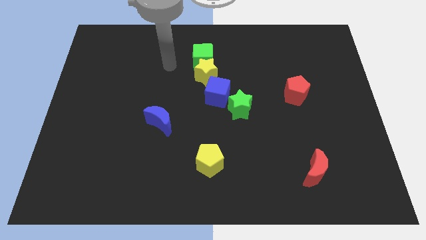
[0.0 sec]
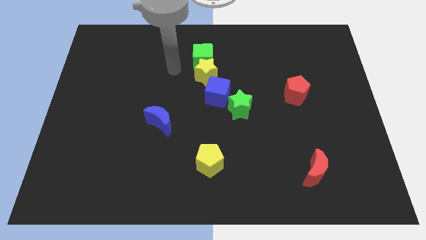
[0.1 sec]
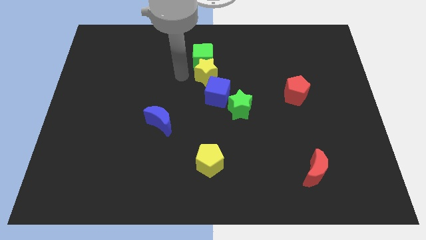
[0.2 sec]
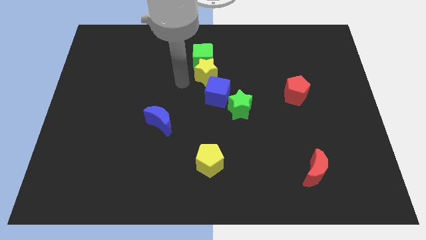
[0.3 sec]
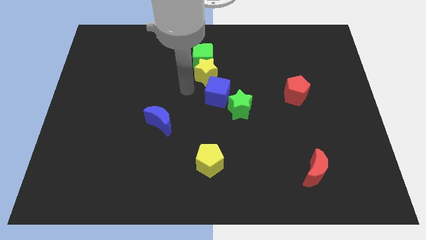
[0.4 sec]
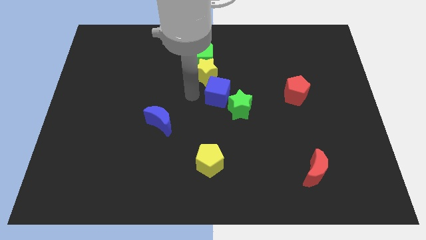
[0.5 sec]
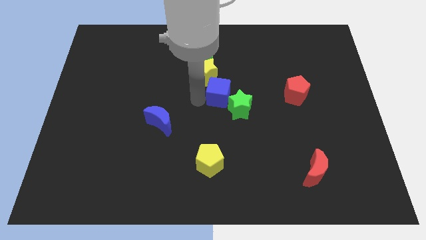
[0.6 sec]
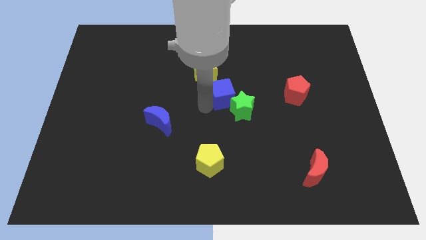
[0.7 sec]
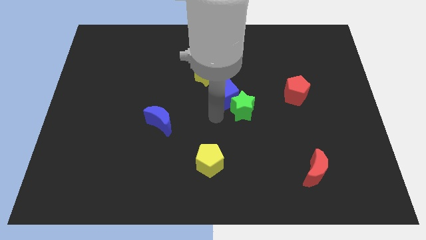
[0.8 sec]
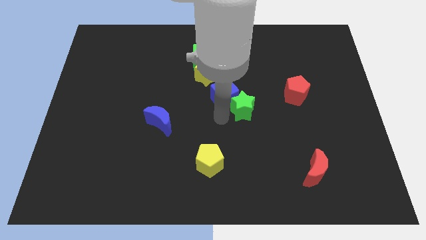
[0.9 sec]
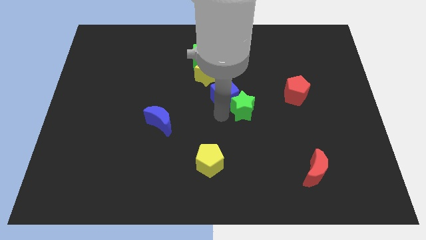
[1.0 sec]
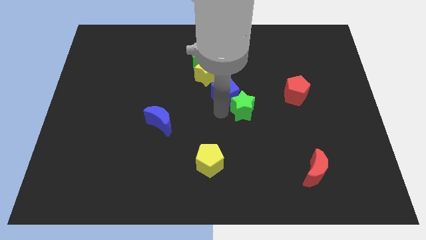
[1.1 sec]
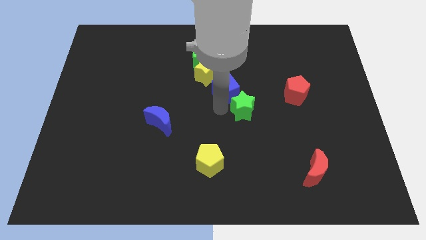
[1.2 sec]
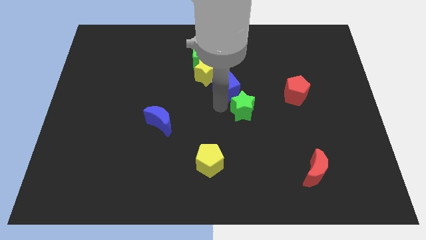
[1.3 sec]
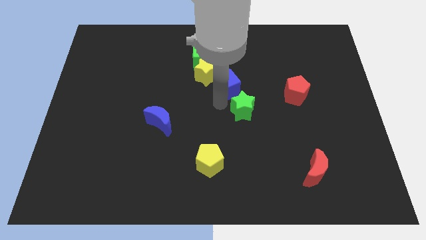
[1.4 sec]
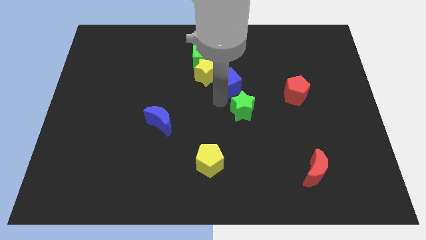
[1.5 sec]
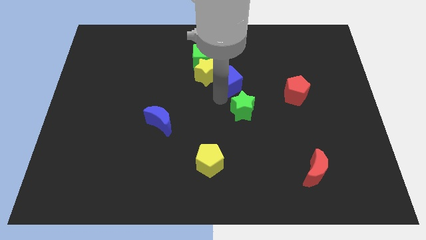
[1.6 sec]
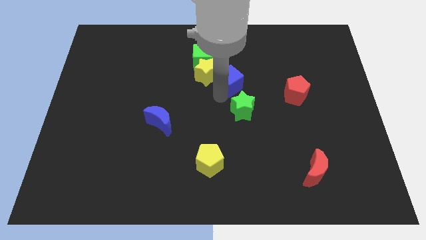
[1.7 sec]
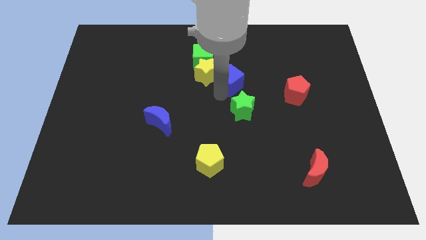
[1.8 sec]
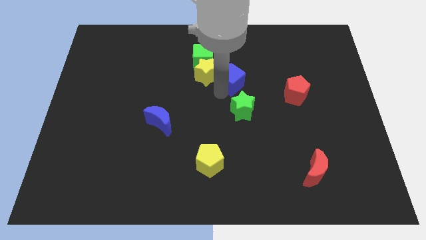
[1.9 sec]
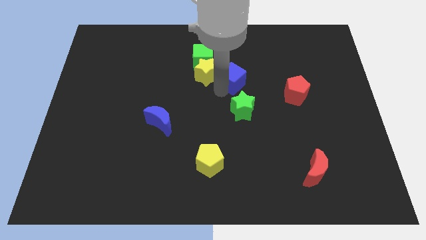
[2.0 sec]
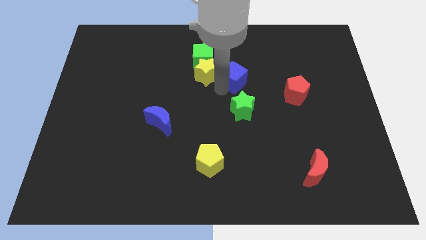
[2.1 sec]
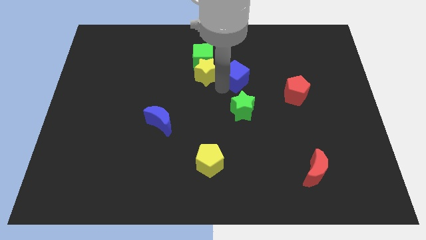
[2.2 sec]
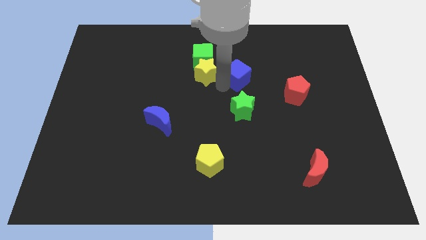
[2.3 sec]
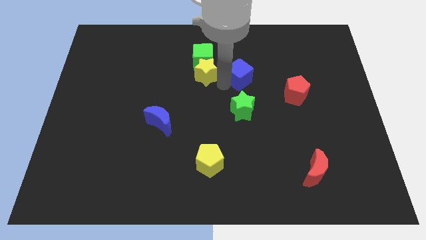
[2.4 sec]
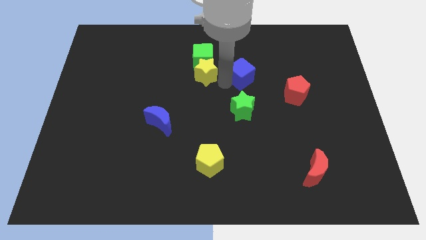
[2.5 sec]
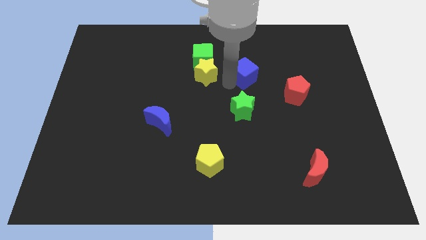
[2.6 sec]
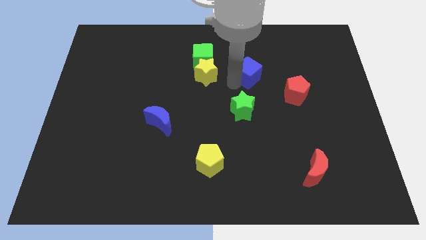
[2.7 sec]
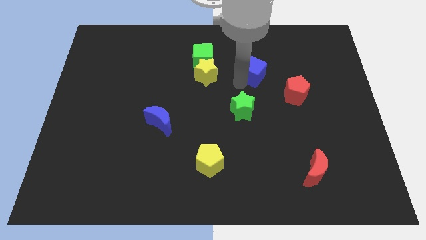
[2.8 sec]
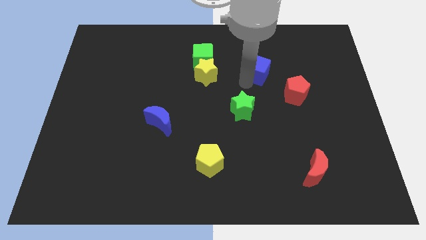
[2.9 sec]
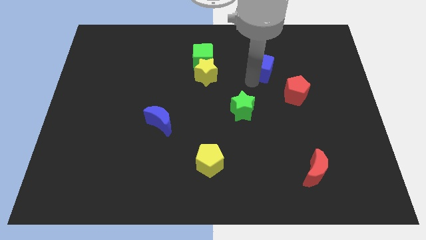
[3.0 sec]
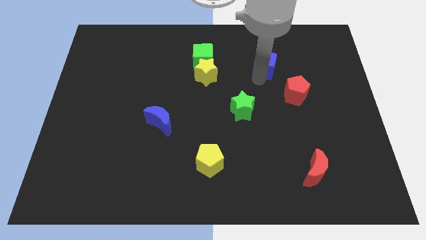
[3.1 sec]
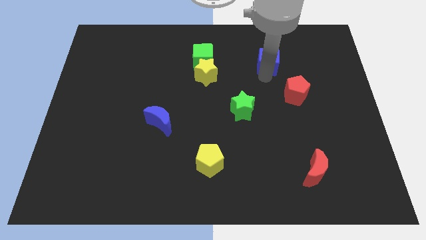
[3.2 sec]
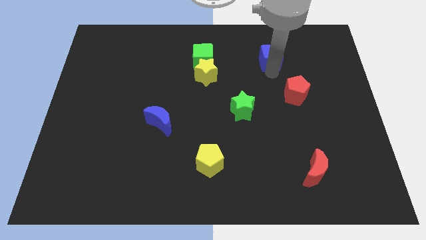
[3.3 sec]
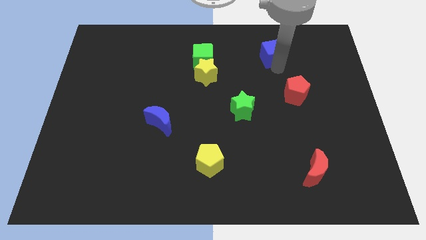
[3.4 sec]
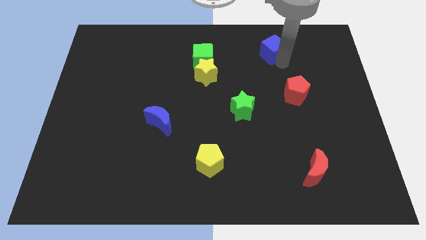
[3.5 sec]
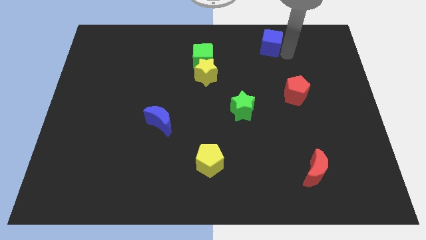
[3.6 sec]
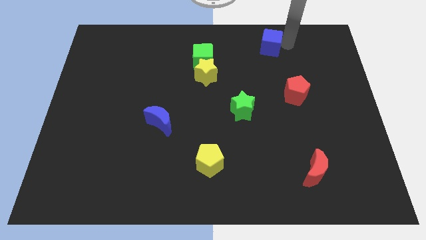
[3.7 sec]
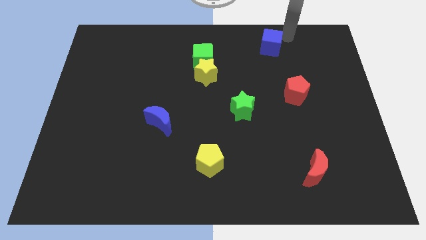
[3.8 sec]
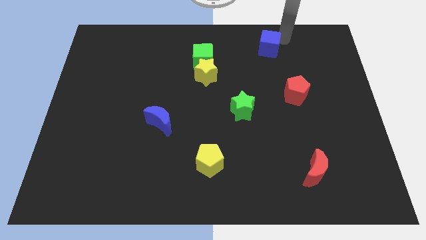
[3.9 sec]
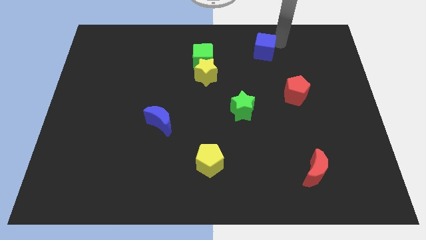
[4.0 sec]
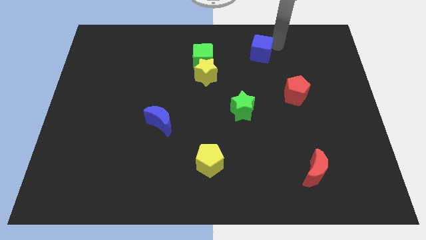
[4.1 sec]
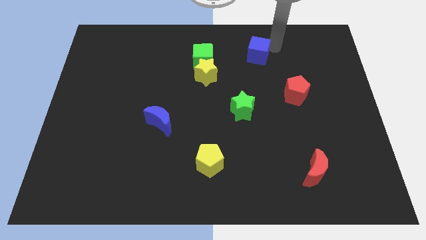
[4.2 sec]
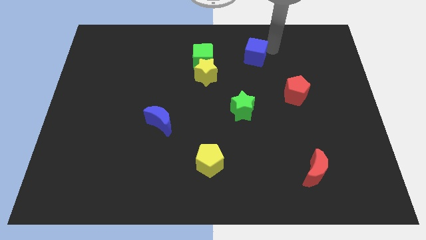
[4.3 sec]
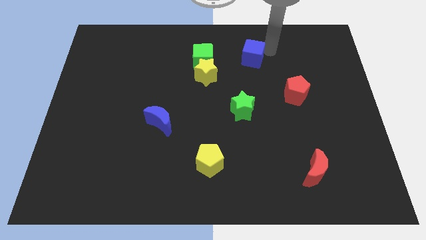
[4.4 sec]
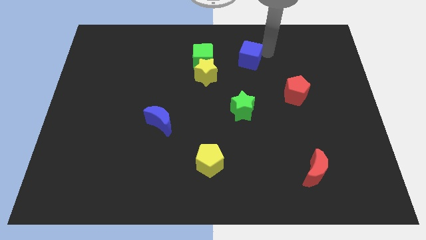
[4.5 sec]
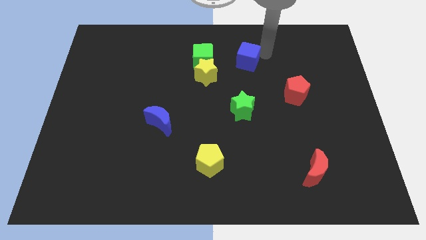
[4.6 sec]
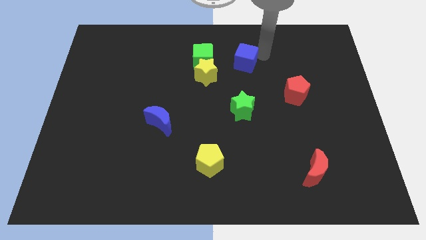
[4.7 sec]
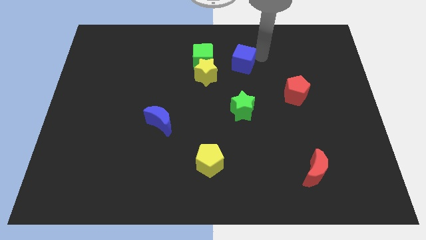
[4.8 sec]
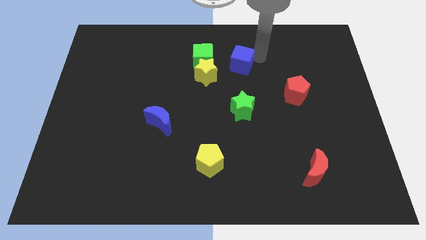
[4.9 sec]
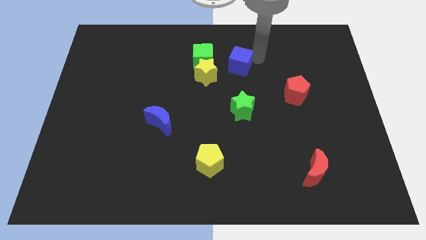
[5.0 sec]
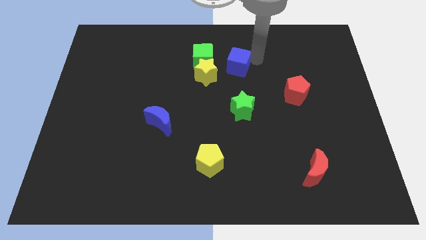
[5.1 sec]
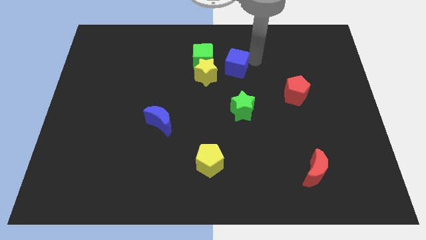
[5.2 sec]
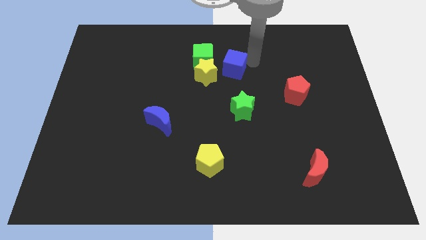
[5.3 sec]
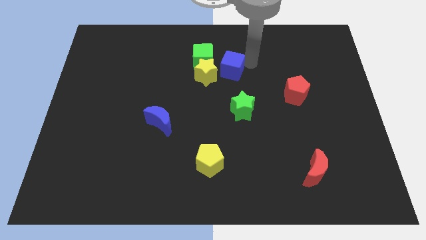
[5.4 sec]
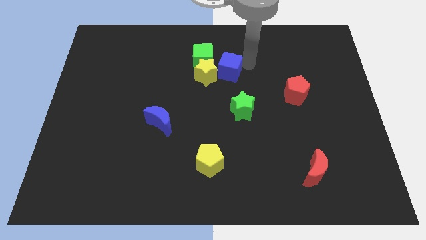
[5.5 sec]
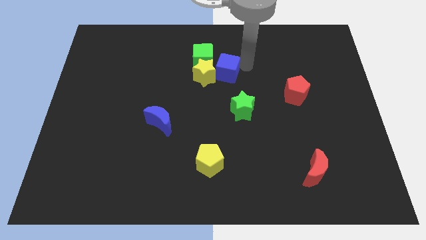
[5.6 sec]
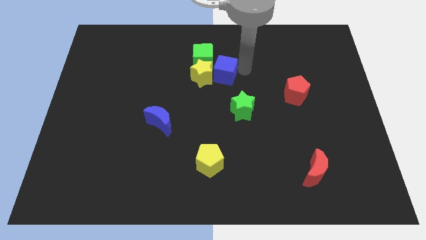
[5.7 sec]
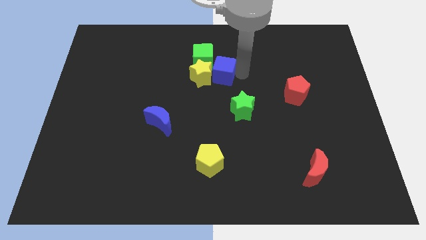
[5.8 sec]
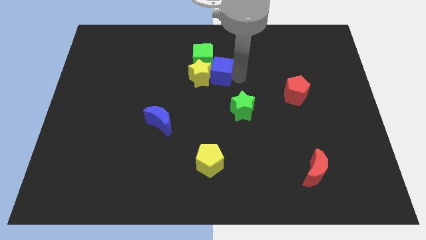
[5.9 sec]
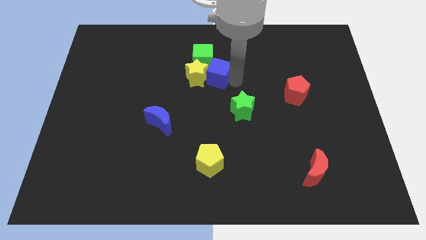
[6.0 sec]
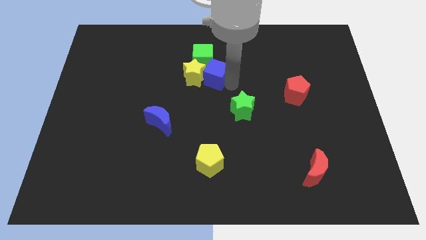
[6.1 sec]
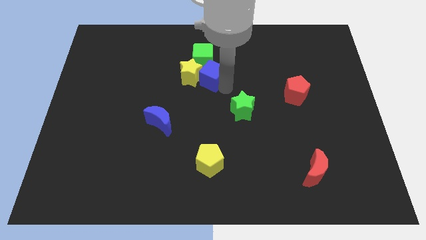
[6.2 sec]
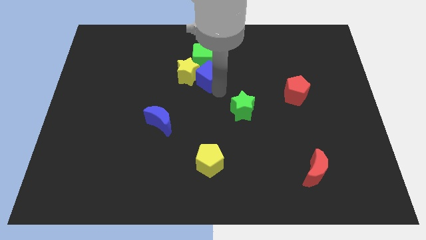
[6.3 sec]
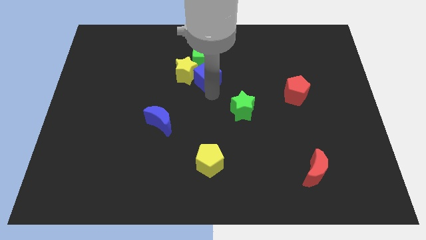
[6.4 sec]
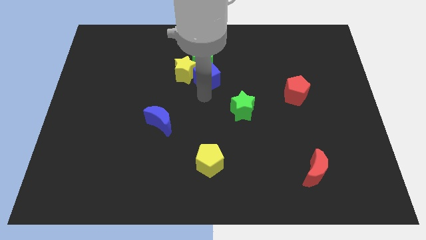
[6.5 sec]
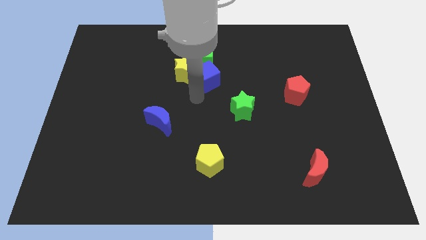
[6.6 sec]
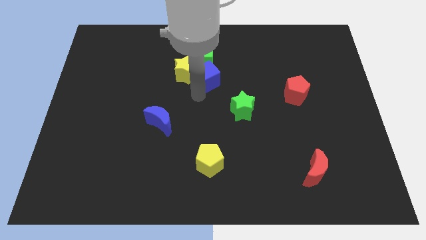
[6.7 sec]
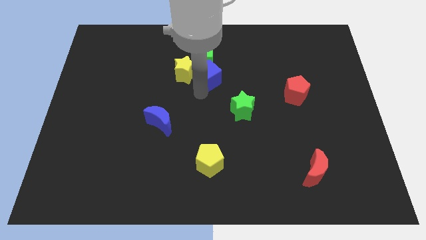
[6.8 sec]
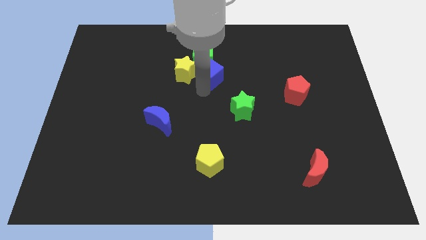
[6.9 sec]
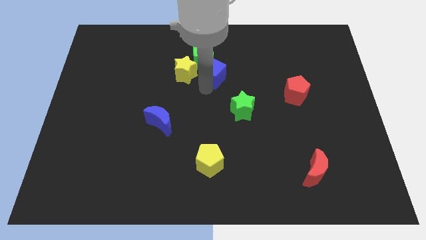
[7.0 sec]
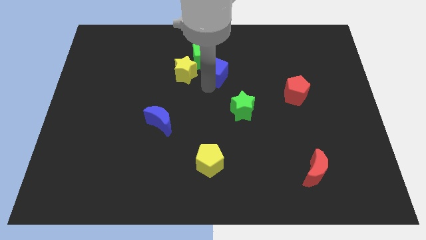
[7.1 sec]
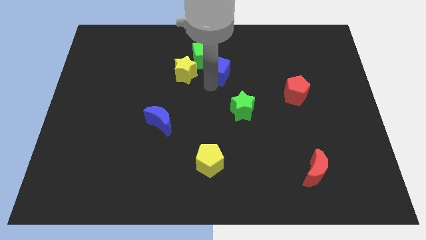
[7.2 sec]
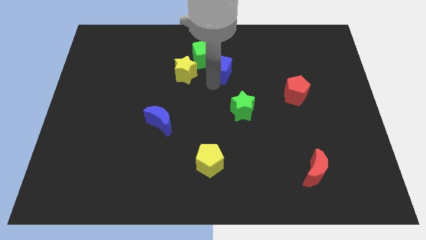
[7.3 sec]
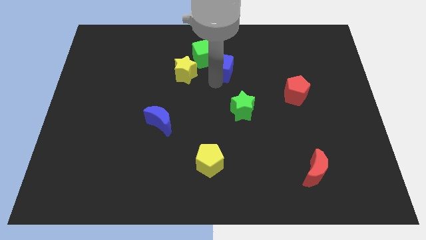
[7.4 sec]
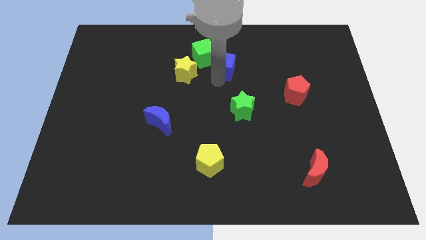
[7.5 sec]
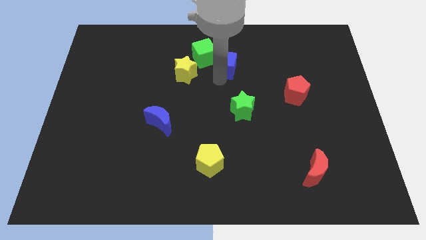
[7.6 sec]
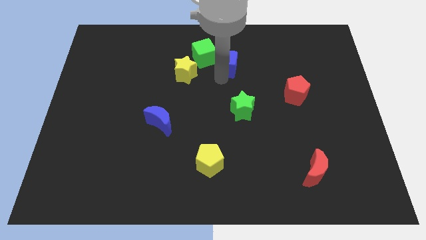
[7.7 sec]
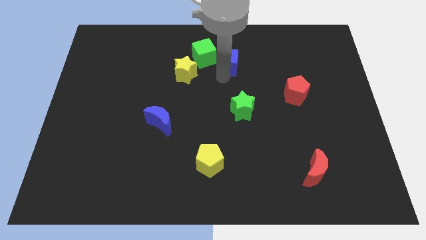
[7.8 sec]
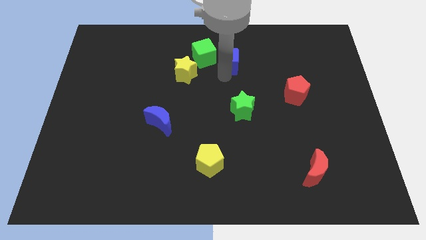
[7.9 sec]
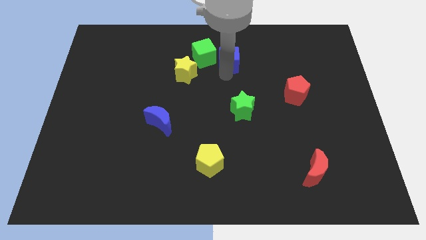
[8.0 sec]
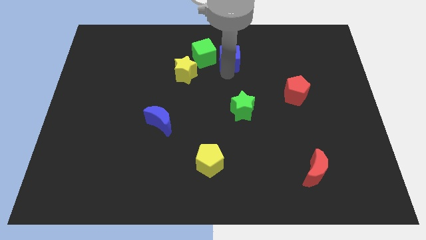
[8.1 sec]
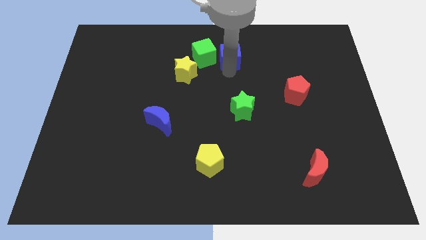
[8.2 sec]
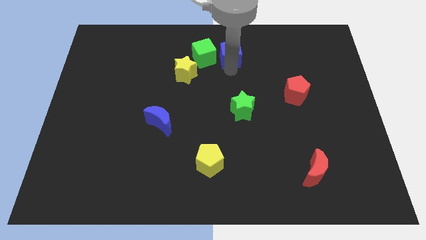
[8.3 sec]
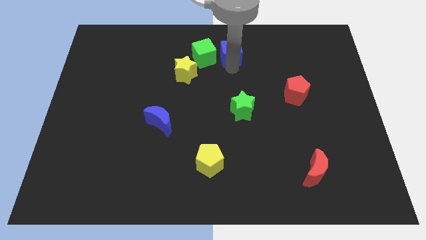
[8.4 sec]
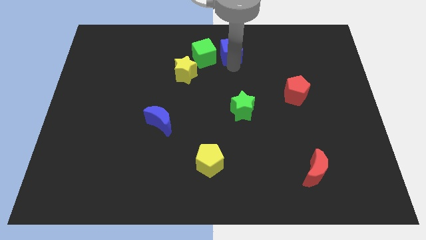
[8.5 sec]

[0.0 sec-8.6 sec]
put the blue cube to the towards your base
